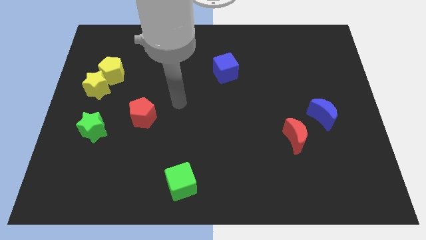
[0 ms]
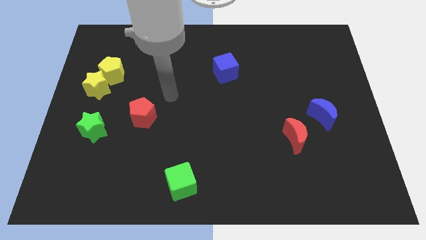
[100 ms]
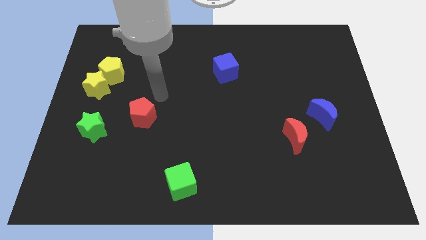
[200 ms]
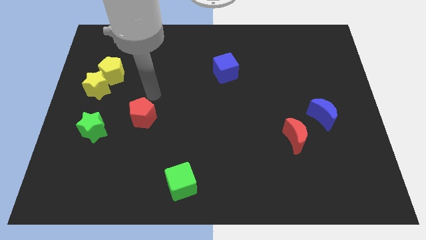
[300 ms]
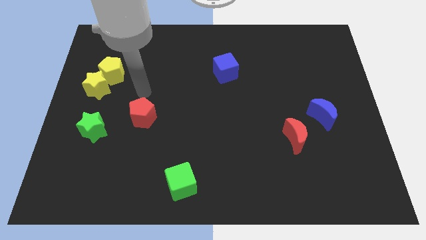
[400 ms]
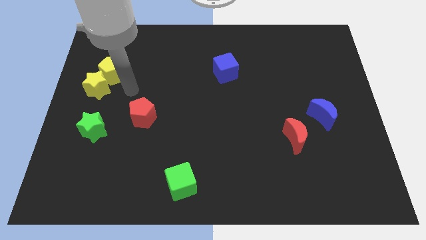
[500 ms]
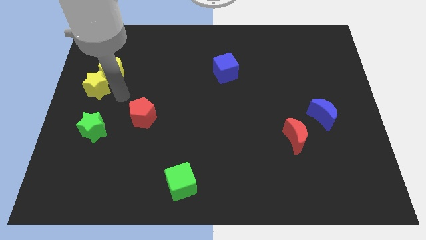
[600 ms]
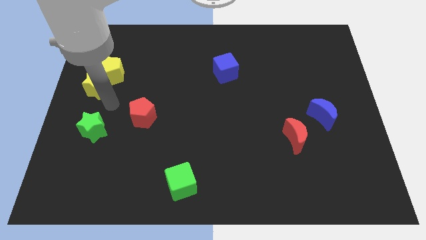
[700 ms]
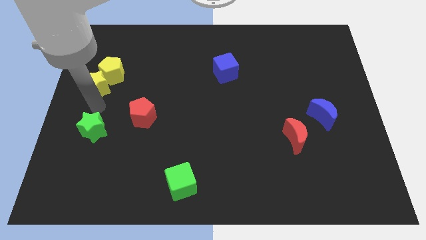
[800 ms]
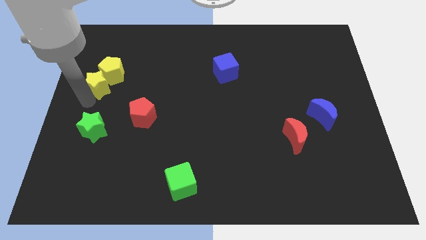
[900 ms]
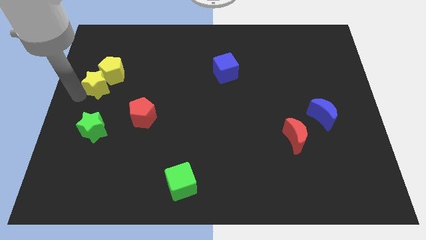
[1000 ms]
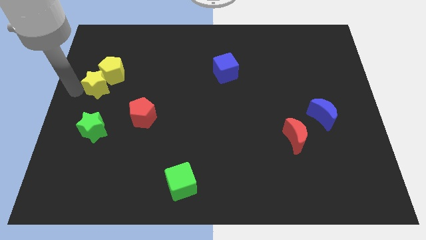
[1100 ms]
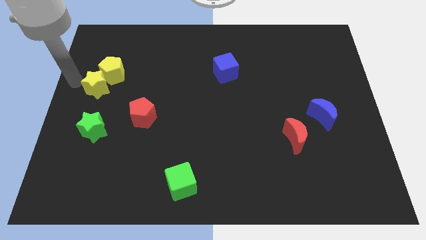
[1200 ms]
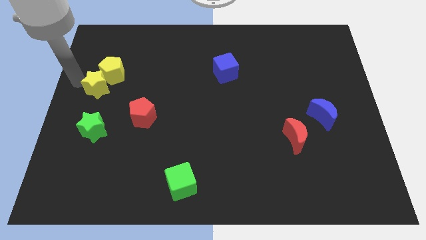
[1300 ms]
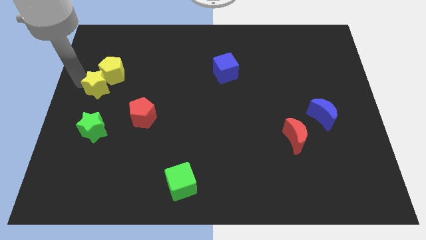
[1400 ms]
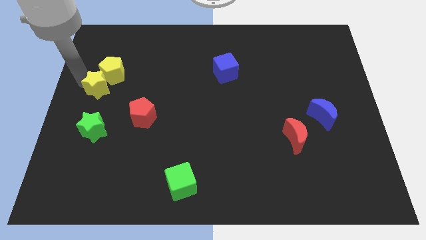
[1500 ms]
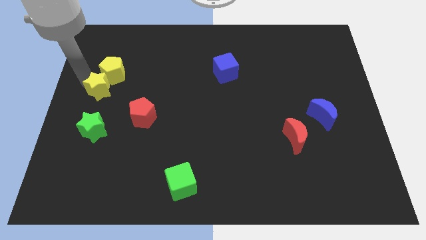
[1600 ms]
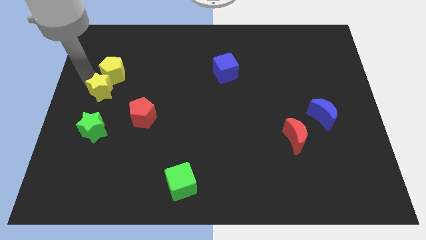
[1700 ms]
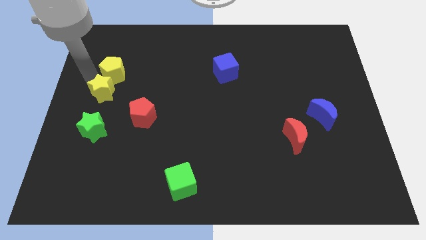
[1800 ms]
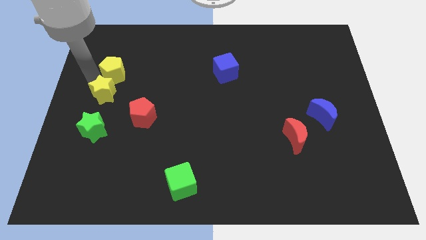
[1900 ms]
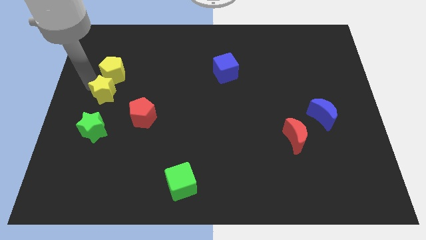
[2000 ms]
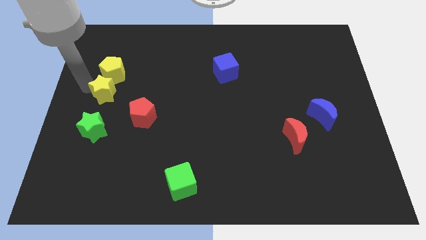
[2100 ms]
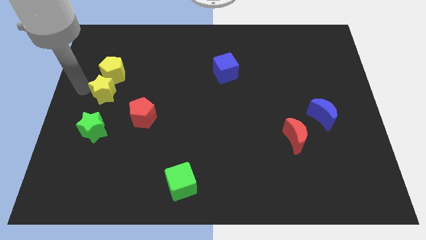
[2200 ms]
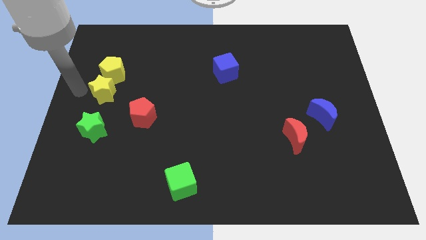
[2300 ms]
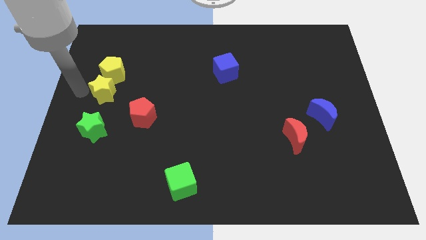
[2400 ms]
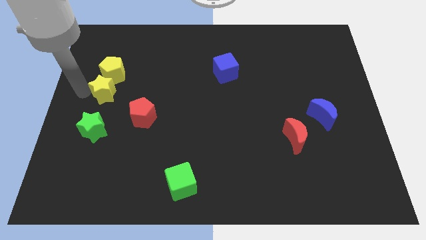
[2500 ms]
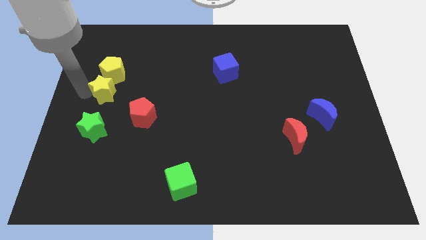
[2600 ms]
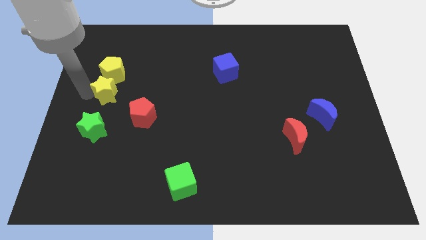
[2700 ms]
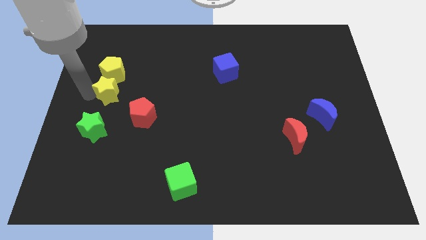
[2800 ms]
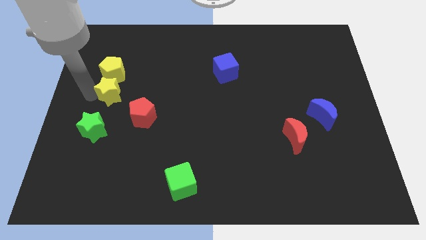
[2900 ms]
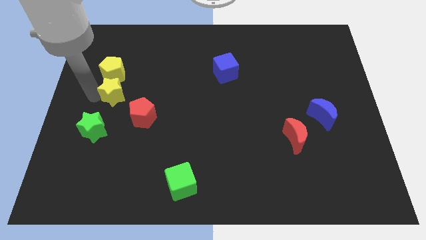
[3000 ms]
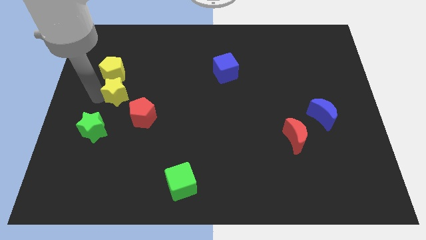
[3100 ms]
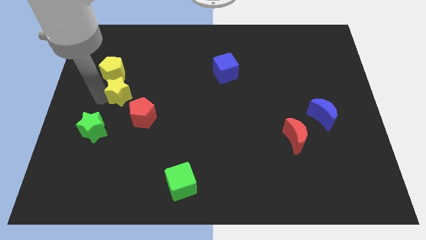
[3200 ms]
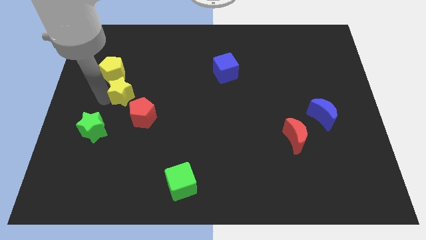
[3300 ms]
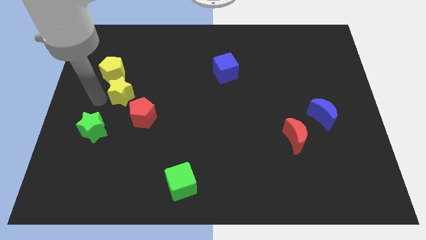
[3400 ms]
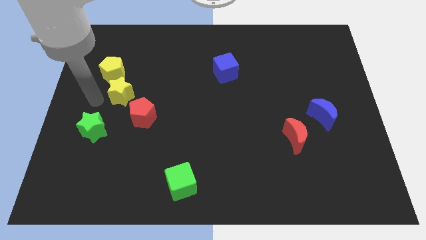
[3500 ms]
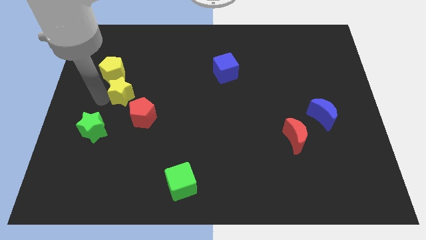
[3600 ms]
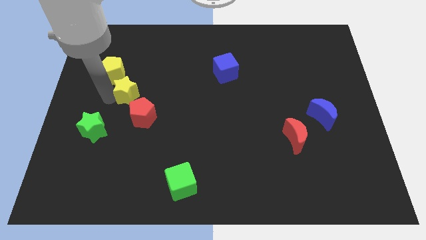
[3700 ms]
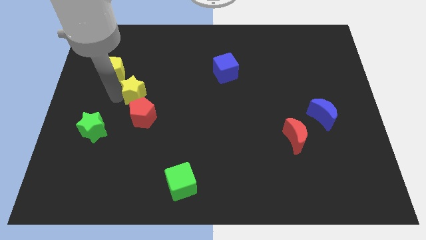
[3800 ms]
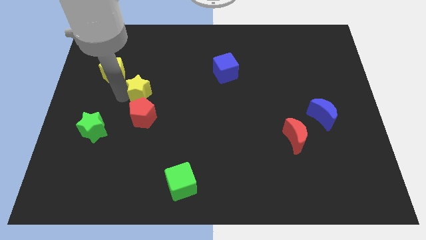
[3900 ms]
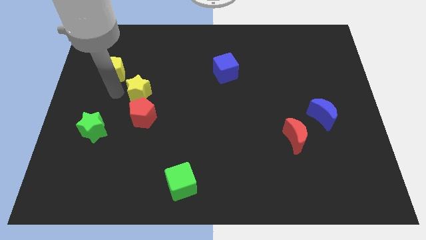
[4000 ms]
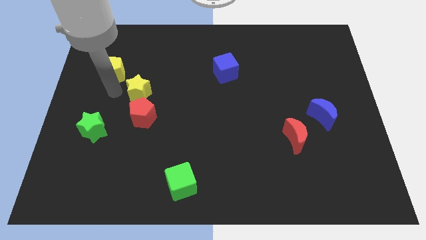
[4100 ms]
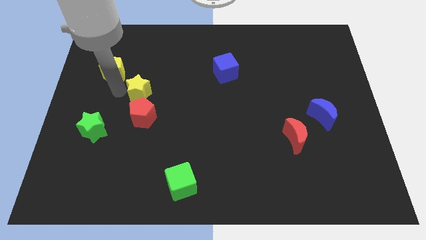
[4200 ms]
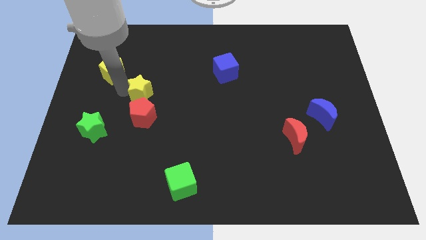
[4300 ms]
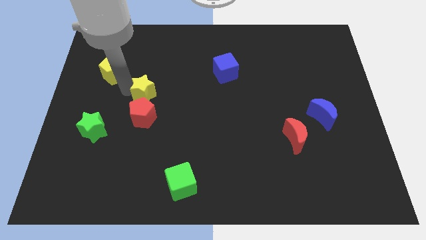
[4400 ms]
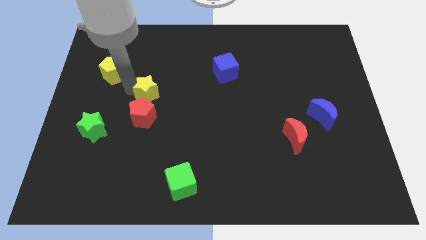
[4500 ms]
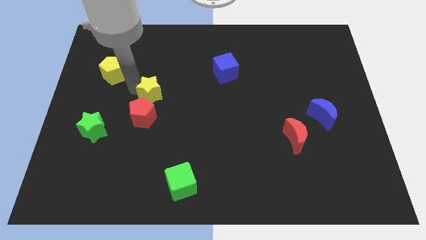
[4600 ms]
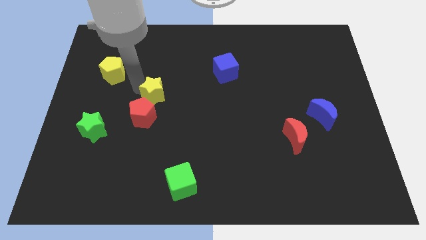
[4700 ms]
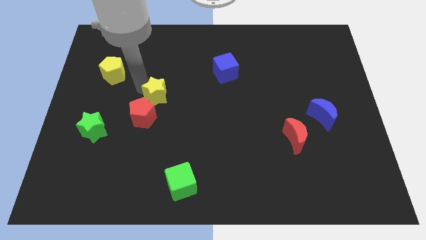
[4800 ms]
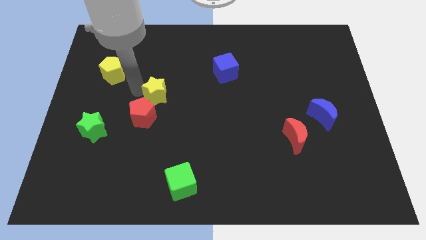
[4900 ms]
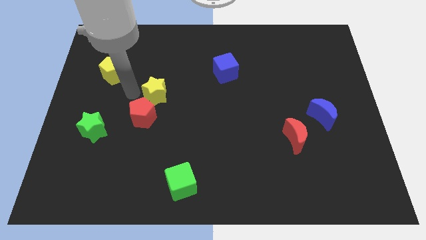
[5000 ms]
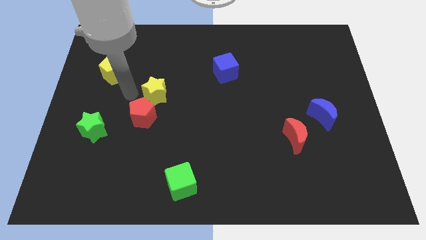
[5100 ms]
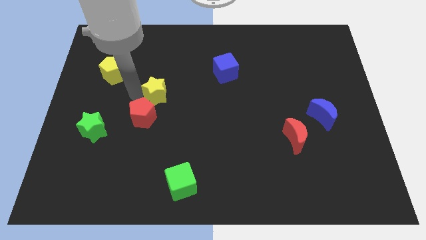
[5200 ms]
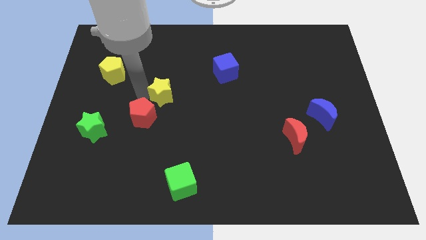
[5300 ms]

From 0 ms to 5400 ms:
push the yellow star to the center of the board
